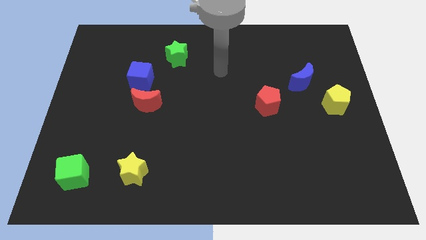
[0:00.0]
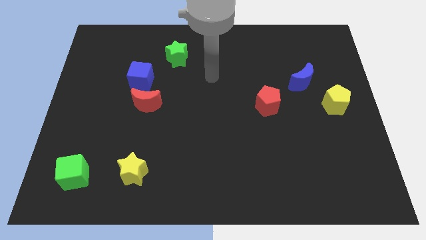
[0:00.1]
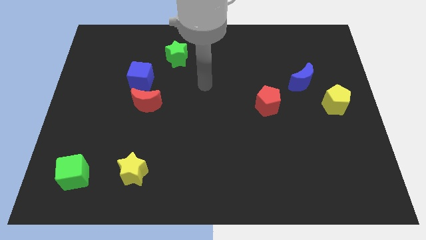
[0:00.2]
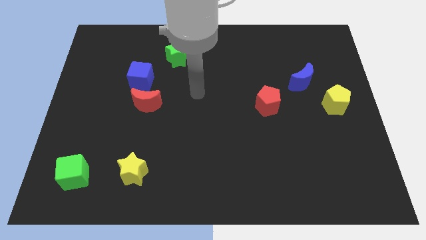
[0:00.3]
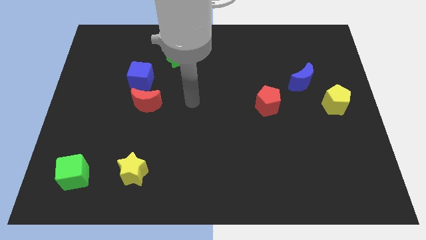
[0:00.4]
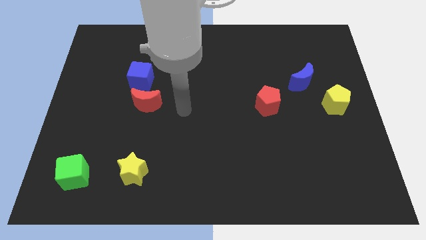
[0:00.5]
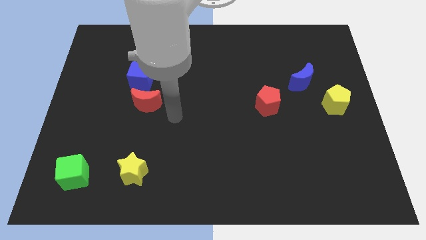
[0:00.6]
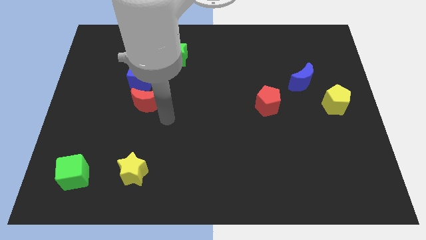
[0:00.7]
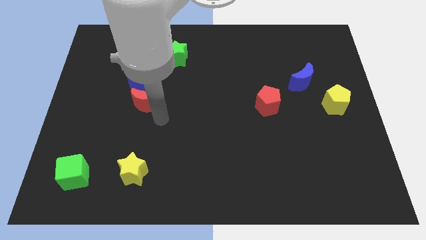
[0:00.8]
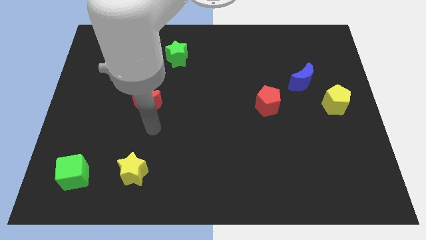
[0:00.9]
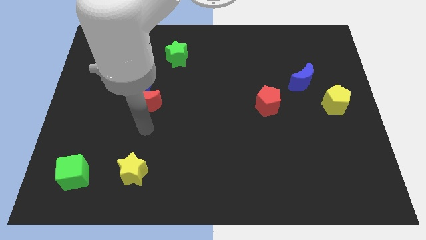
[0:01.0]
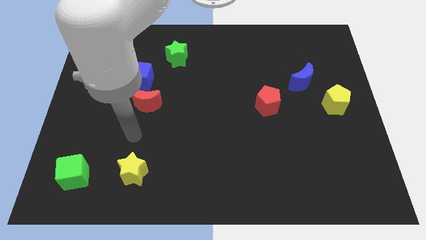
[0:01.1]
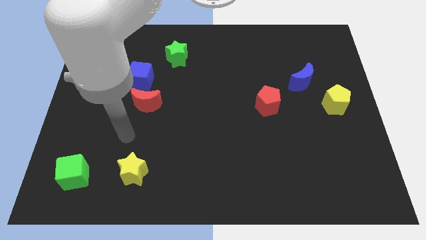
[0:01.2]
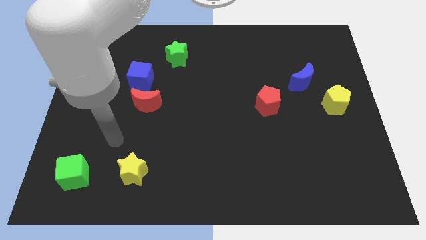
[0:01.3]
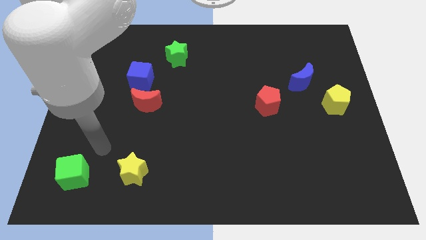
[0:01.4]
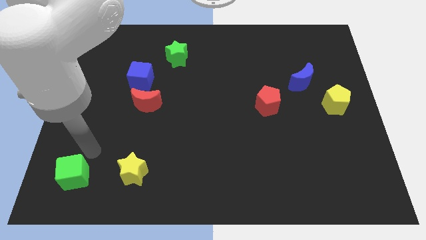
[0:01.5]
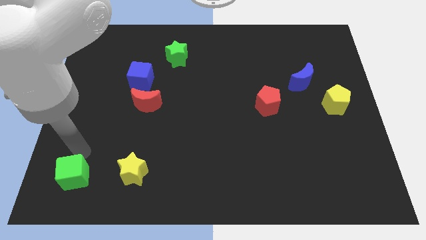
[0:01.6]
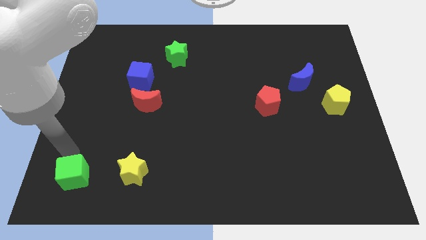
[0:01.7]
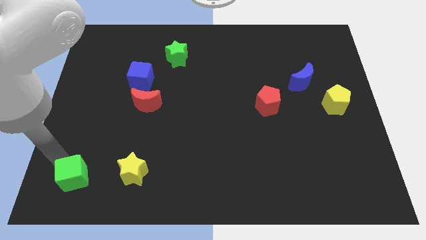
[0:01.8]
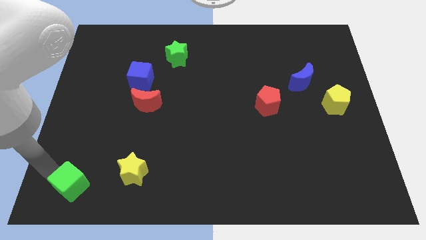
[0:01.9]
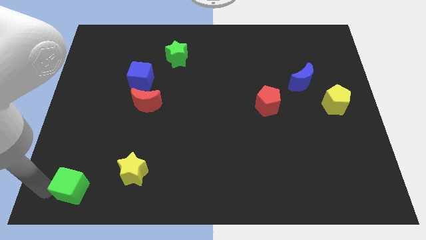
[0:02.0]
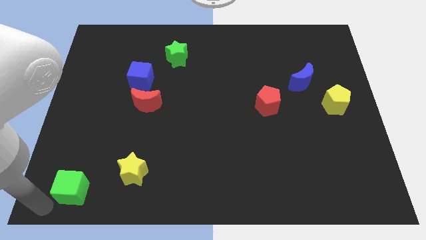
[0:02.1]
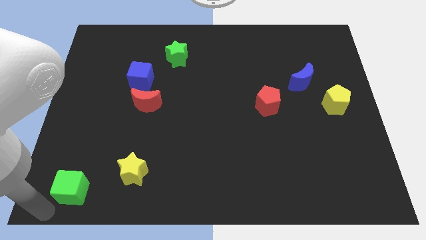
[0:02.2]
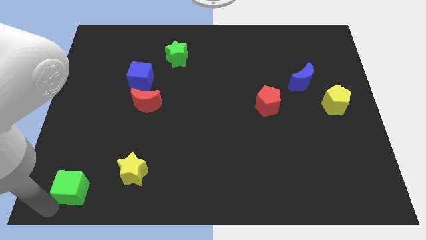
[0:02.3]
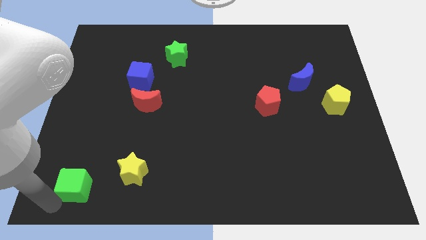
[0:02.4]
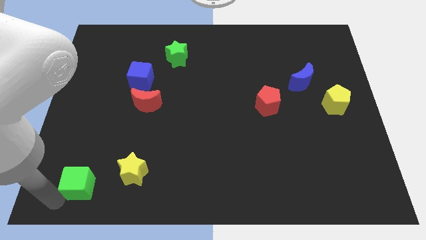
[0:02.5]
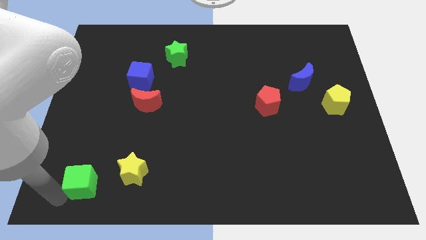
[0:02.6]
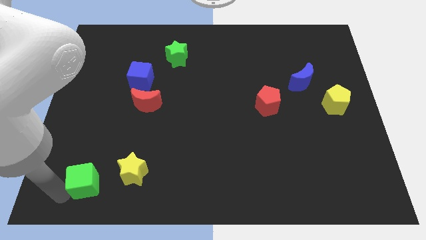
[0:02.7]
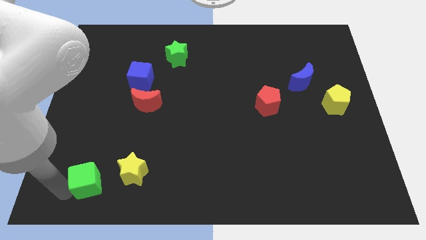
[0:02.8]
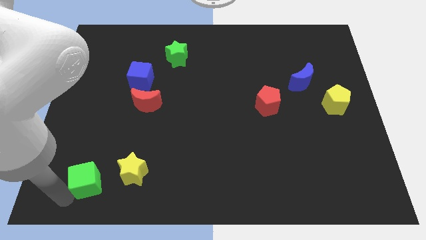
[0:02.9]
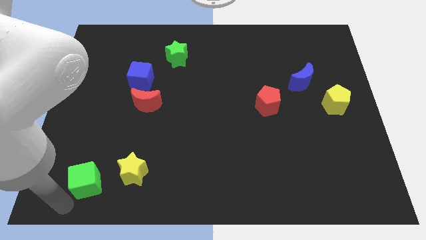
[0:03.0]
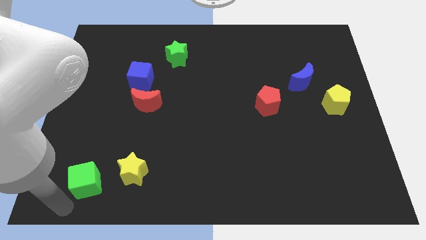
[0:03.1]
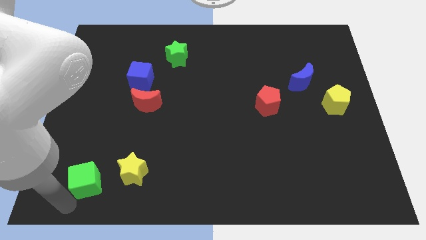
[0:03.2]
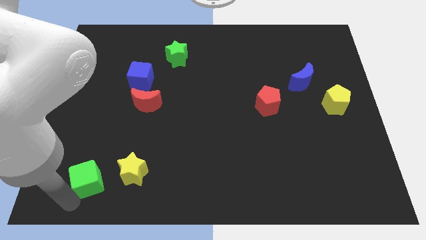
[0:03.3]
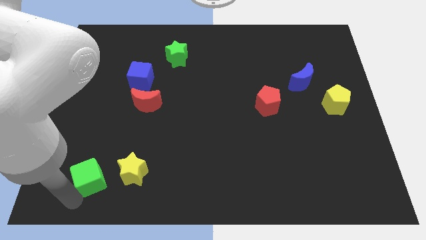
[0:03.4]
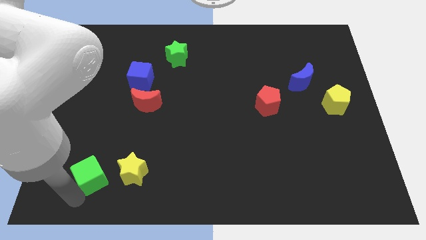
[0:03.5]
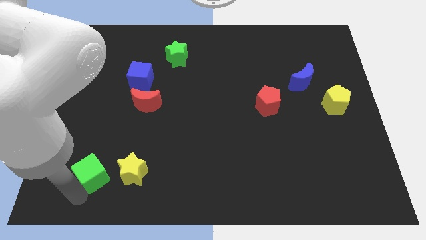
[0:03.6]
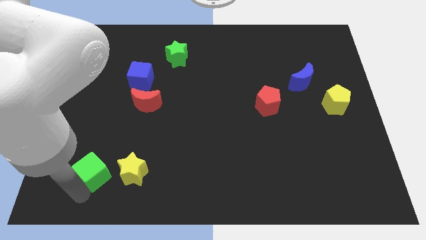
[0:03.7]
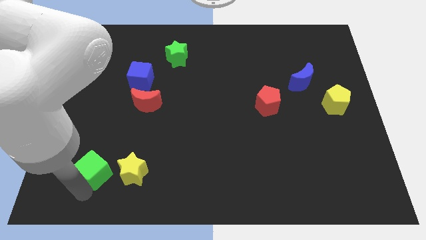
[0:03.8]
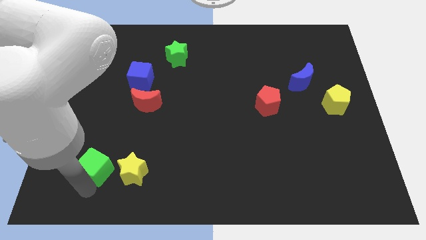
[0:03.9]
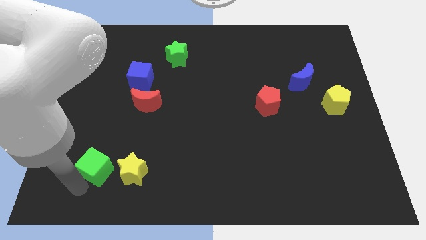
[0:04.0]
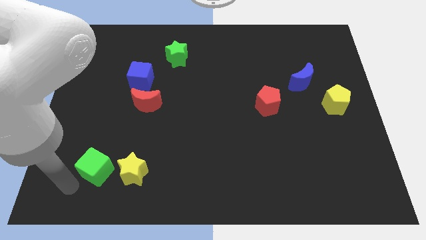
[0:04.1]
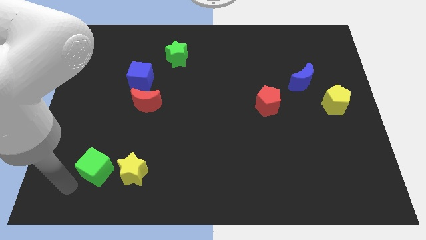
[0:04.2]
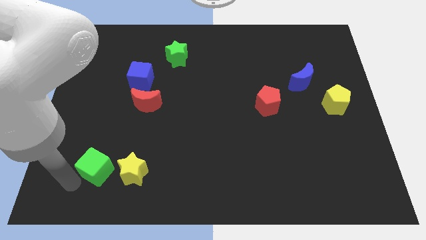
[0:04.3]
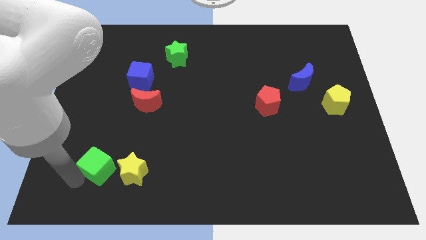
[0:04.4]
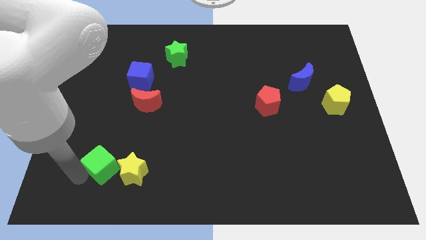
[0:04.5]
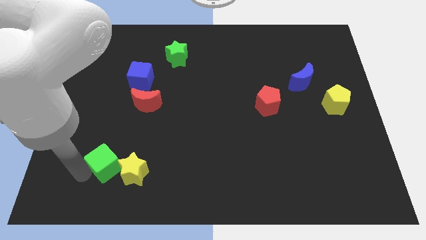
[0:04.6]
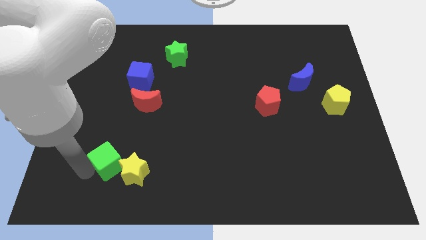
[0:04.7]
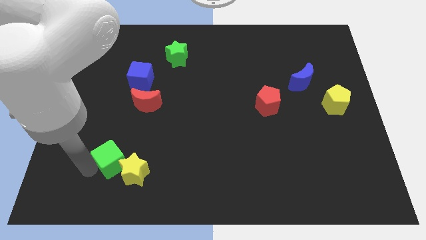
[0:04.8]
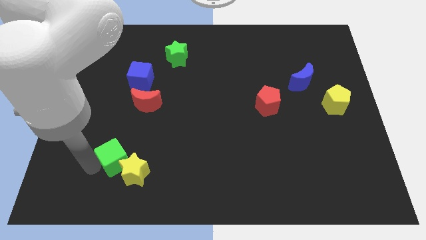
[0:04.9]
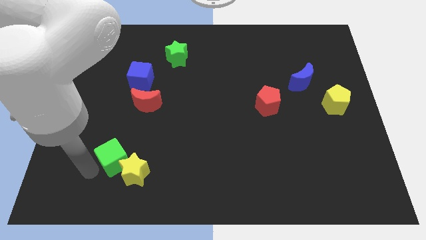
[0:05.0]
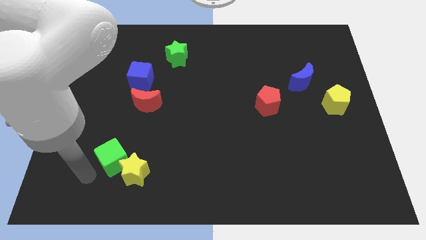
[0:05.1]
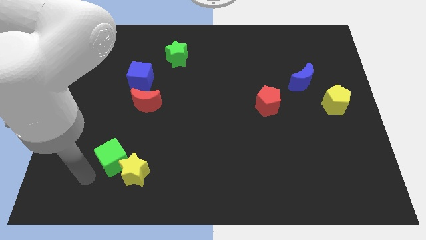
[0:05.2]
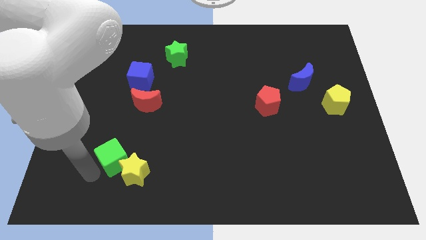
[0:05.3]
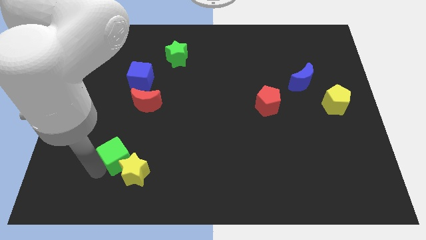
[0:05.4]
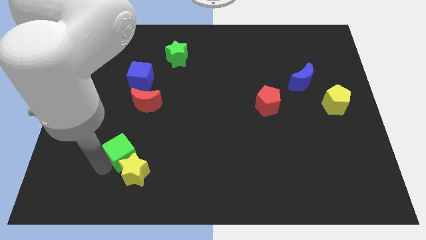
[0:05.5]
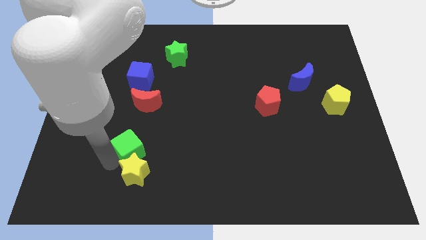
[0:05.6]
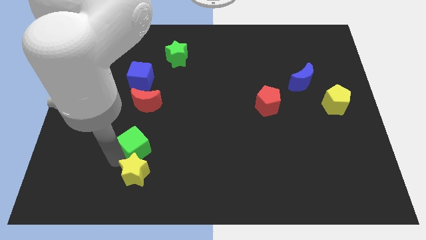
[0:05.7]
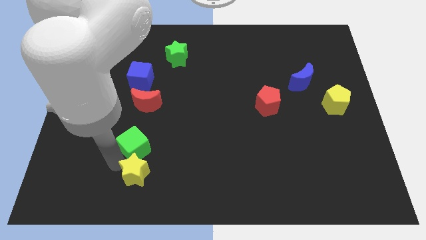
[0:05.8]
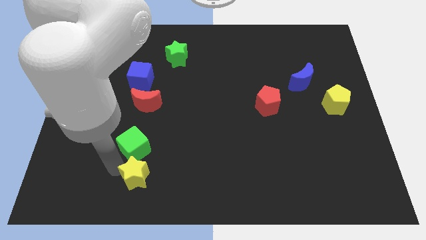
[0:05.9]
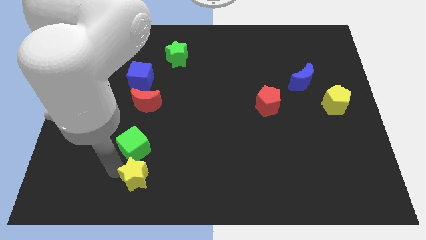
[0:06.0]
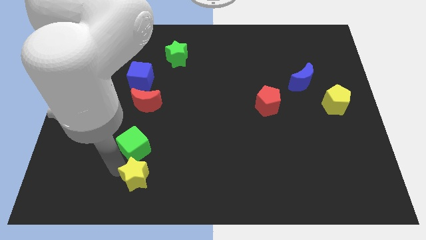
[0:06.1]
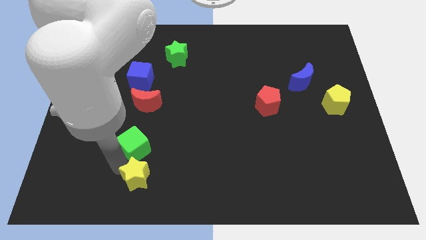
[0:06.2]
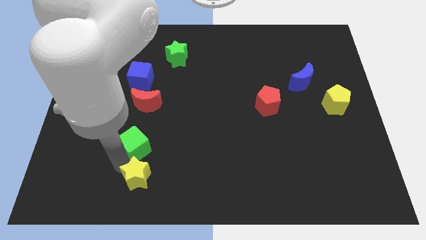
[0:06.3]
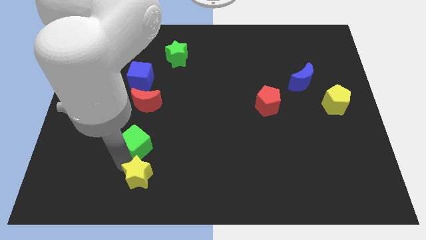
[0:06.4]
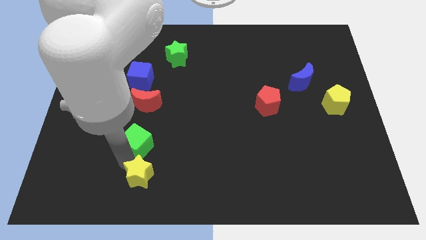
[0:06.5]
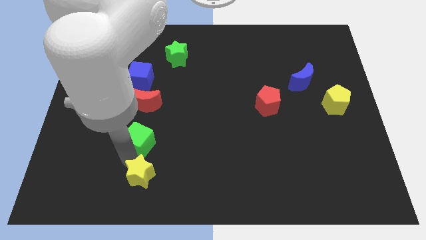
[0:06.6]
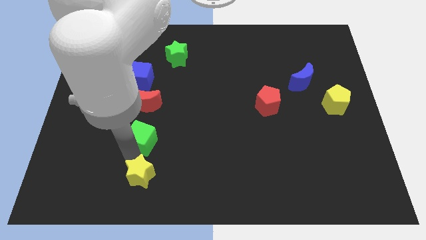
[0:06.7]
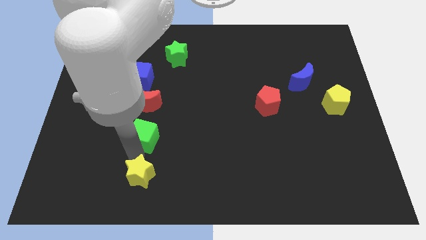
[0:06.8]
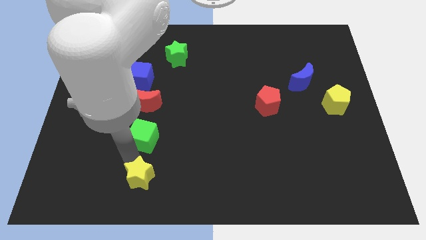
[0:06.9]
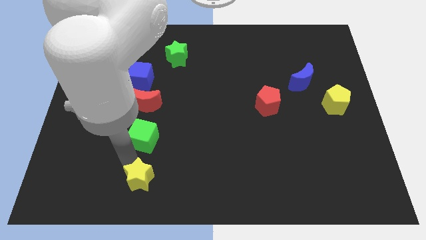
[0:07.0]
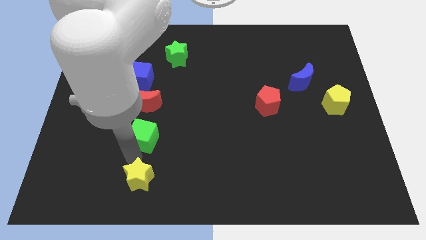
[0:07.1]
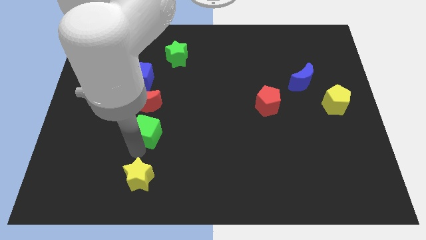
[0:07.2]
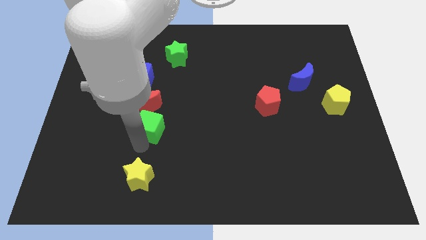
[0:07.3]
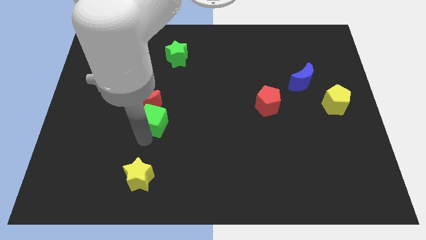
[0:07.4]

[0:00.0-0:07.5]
push the green cube up and to the right

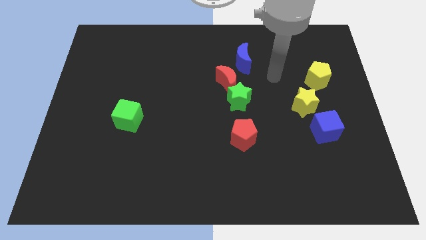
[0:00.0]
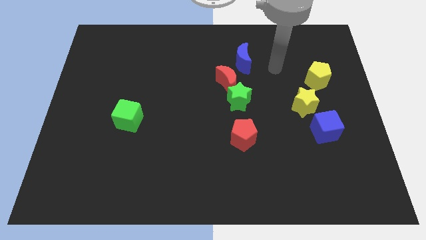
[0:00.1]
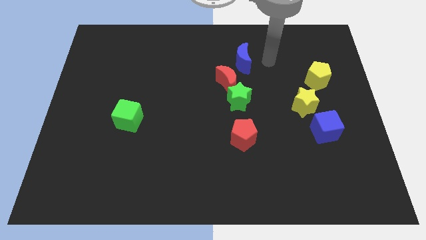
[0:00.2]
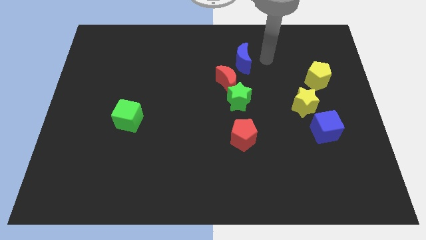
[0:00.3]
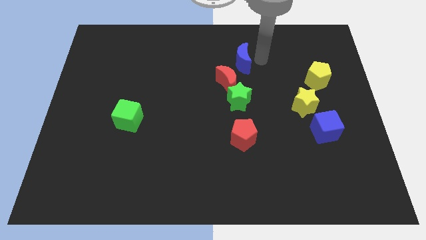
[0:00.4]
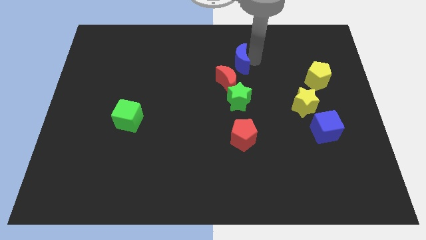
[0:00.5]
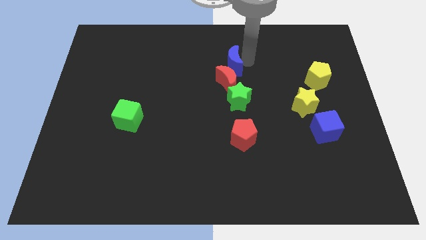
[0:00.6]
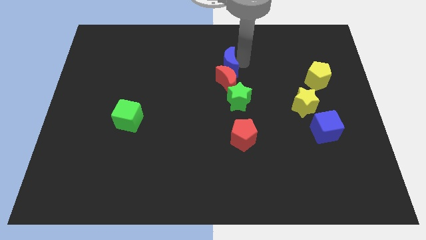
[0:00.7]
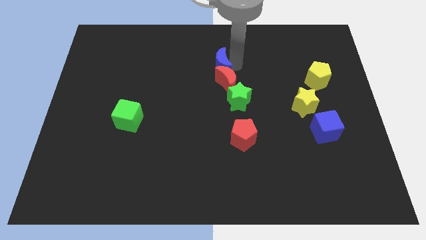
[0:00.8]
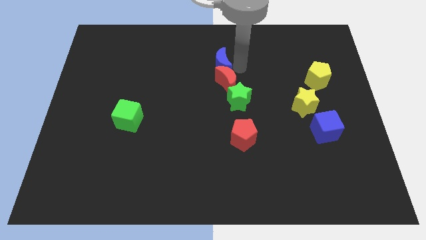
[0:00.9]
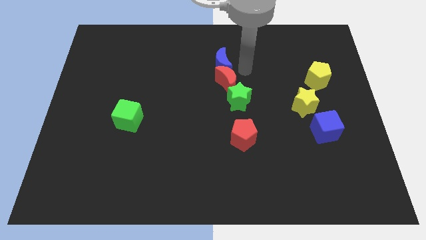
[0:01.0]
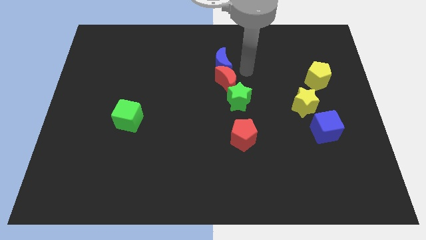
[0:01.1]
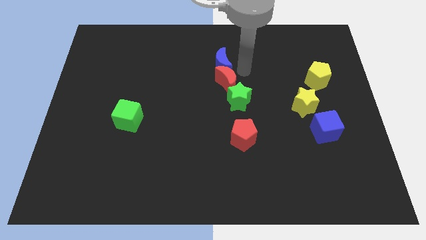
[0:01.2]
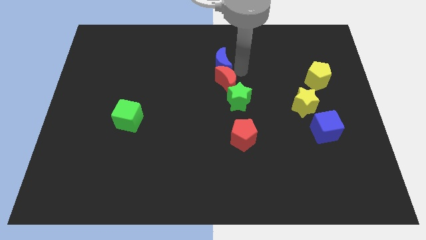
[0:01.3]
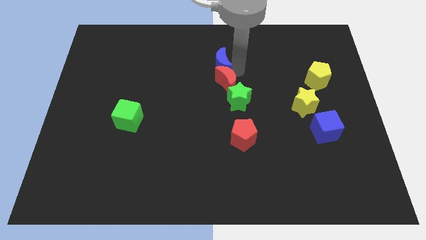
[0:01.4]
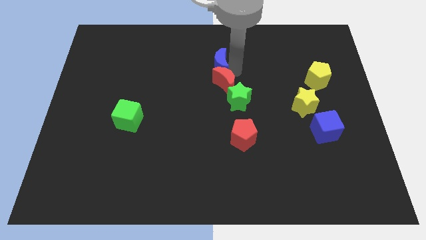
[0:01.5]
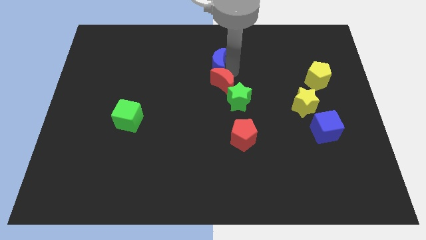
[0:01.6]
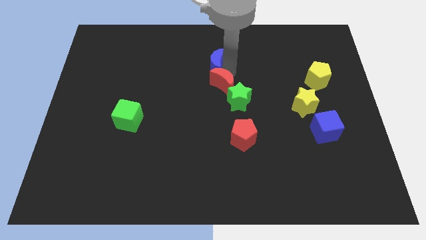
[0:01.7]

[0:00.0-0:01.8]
move the blue moon to the left a little bit
